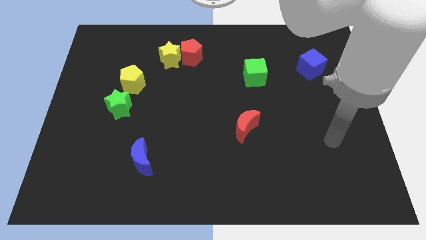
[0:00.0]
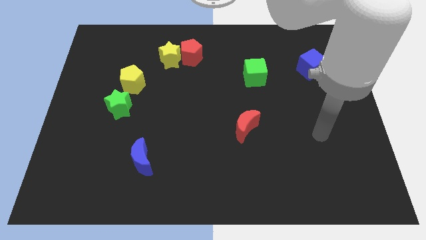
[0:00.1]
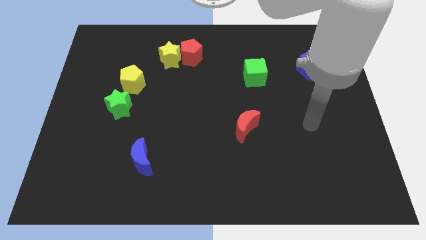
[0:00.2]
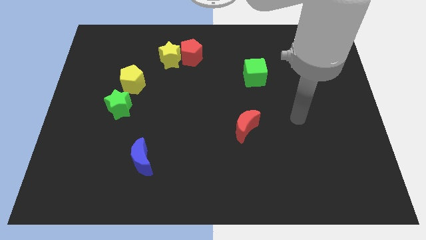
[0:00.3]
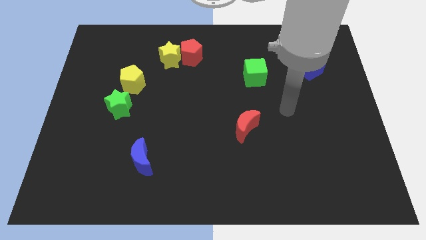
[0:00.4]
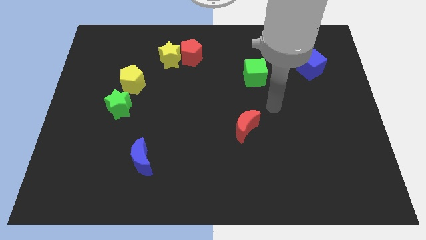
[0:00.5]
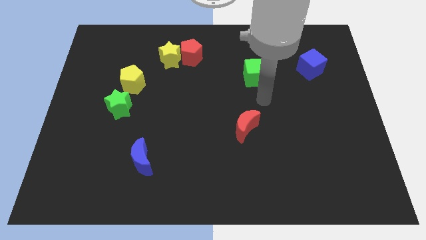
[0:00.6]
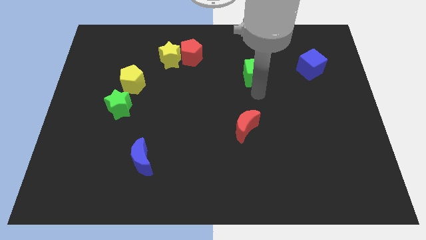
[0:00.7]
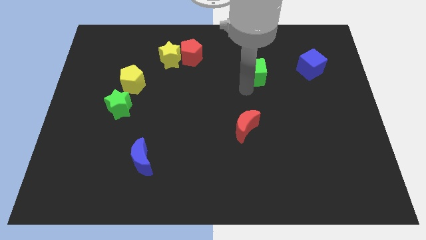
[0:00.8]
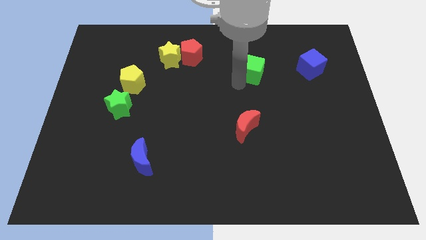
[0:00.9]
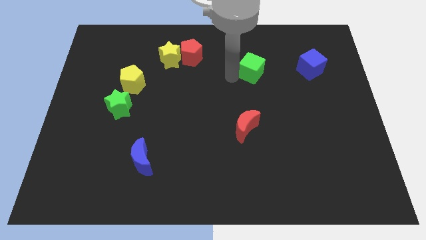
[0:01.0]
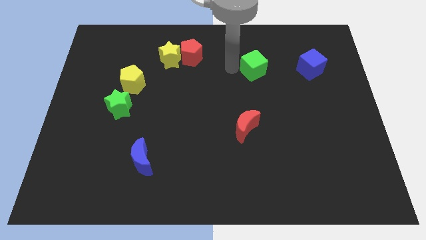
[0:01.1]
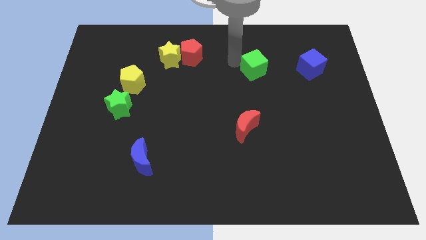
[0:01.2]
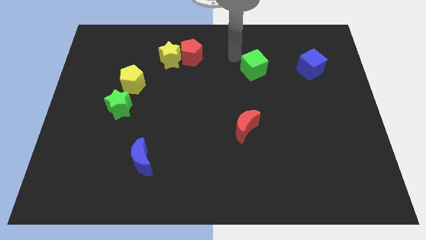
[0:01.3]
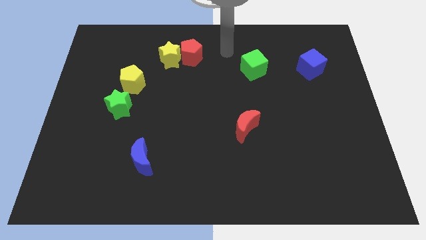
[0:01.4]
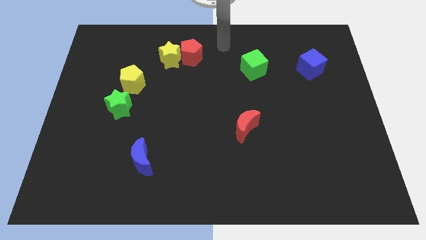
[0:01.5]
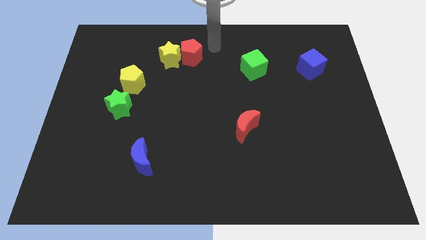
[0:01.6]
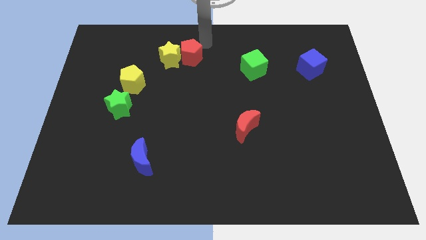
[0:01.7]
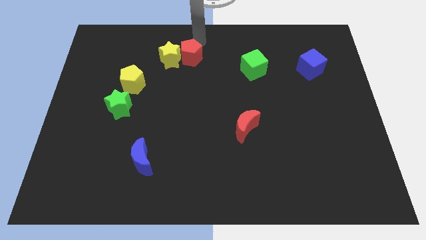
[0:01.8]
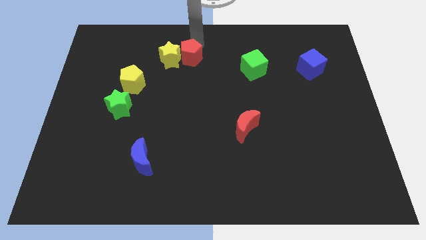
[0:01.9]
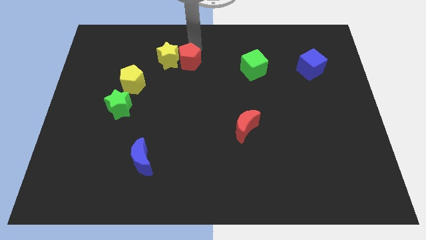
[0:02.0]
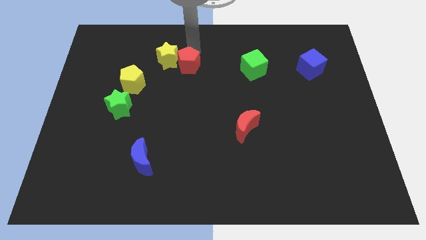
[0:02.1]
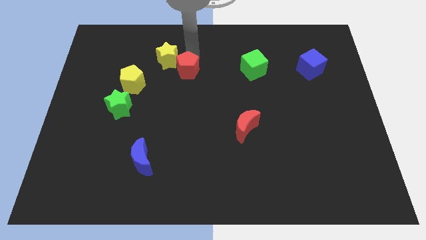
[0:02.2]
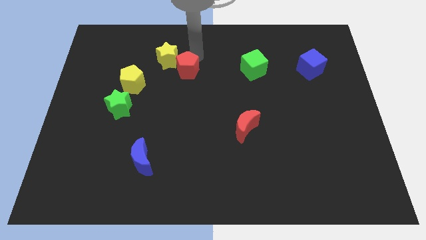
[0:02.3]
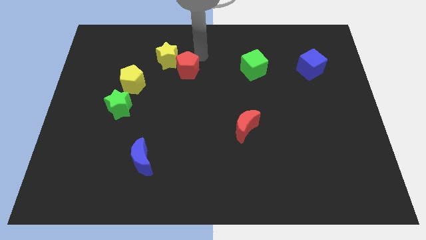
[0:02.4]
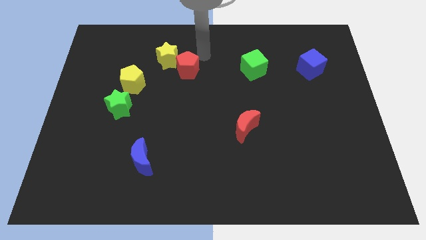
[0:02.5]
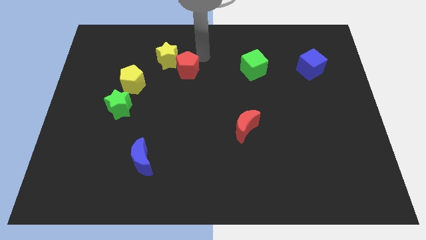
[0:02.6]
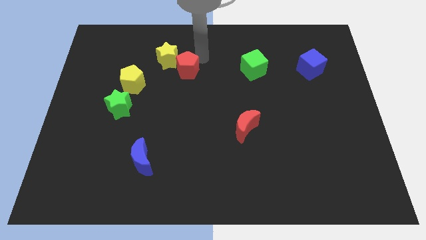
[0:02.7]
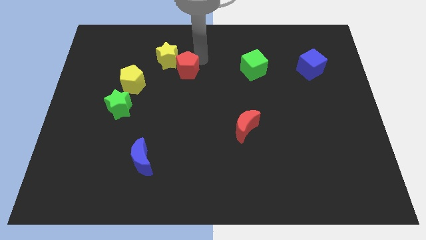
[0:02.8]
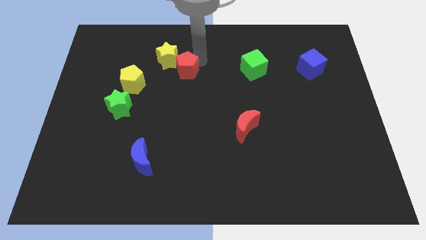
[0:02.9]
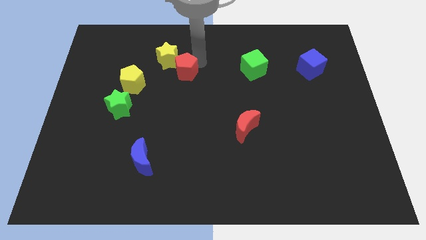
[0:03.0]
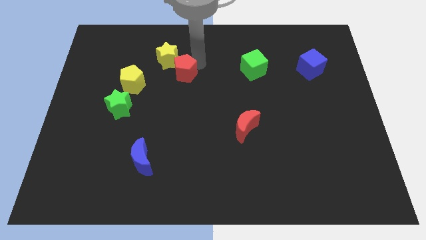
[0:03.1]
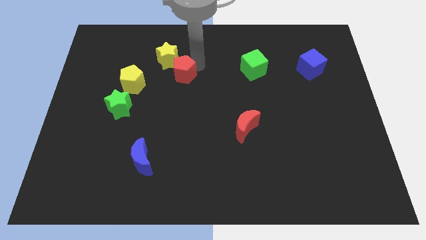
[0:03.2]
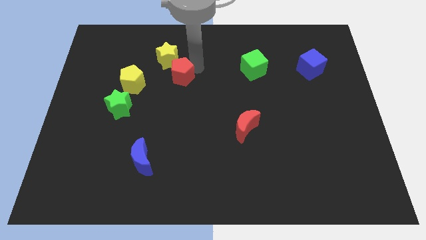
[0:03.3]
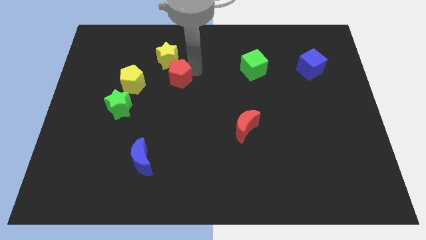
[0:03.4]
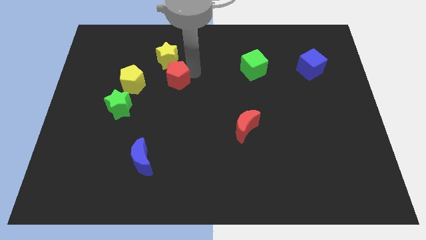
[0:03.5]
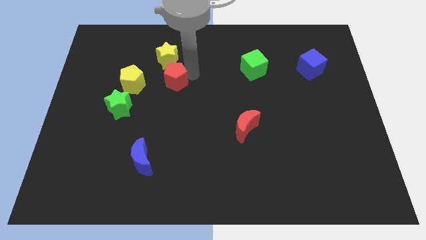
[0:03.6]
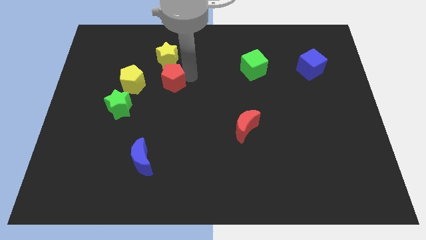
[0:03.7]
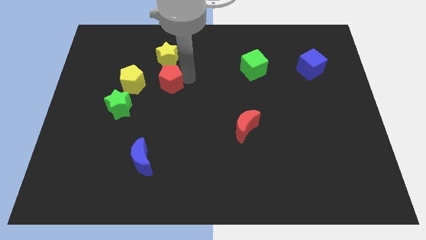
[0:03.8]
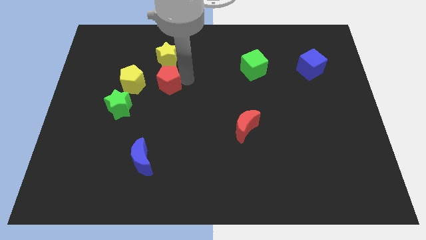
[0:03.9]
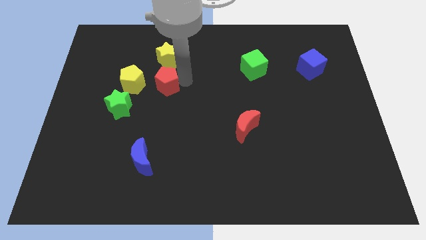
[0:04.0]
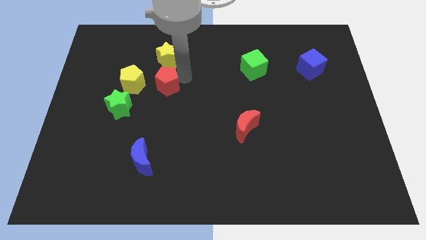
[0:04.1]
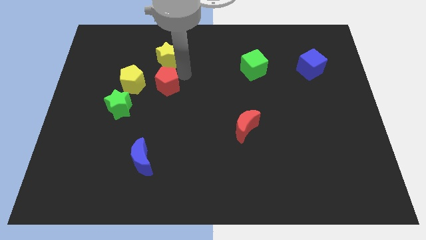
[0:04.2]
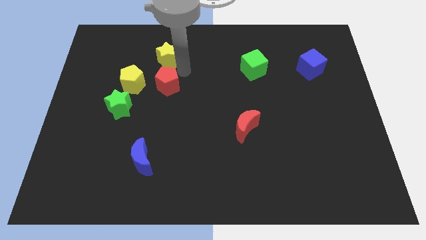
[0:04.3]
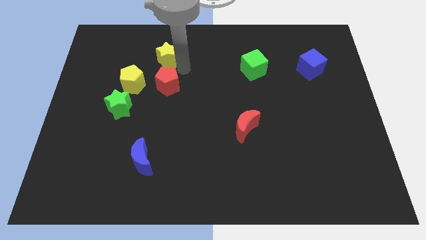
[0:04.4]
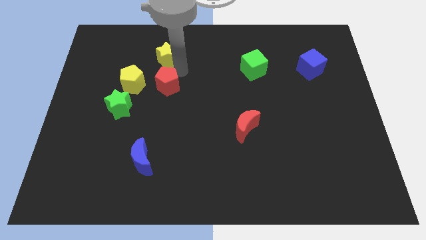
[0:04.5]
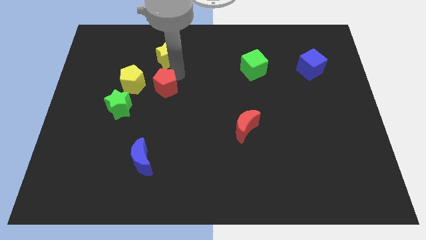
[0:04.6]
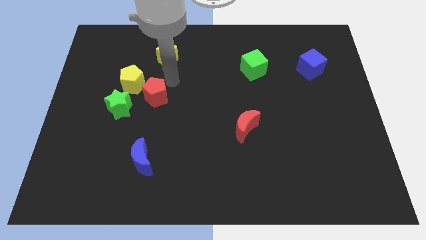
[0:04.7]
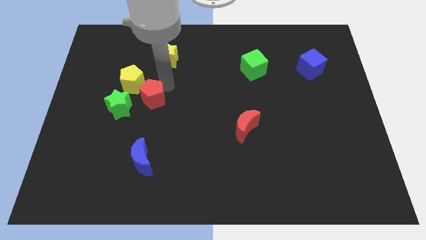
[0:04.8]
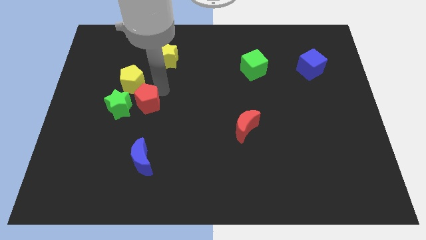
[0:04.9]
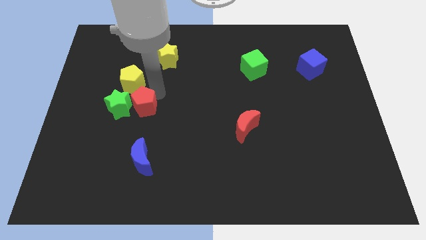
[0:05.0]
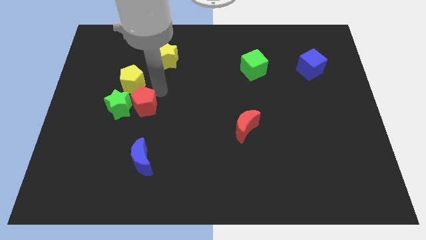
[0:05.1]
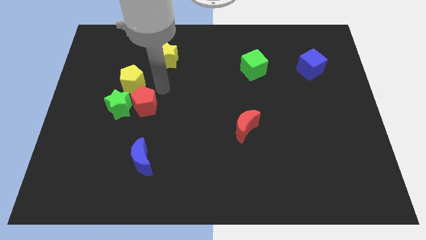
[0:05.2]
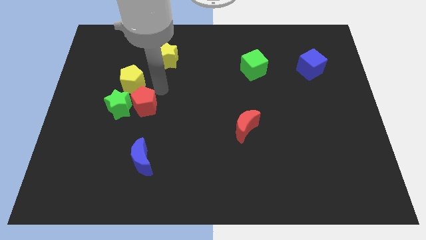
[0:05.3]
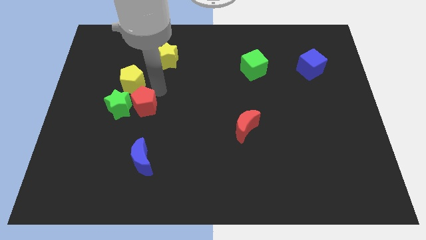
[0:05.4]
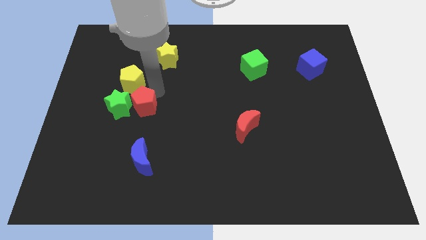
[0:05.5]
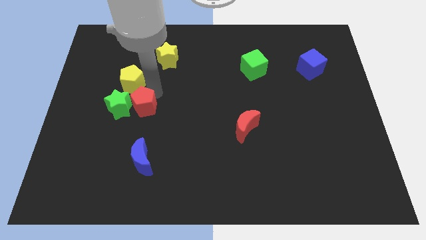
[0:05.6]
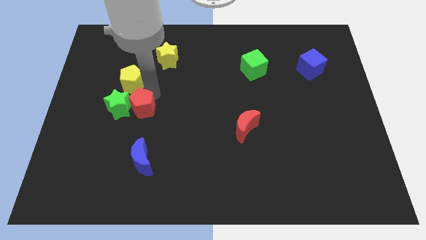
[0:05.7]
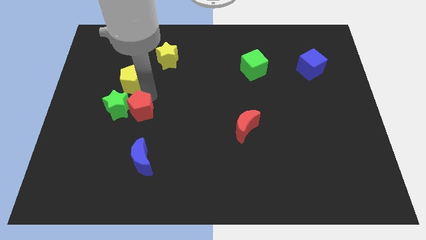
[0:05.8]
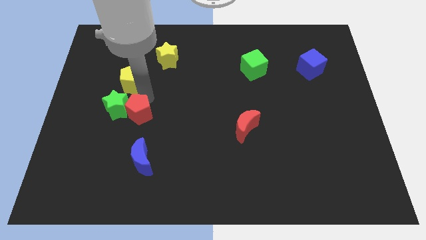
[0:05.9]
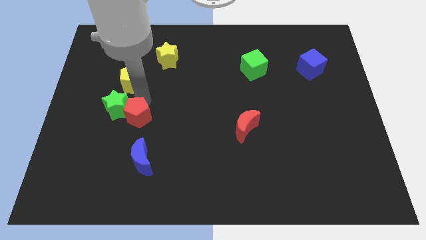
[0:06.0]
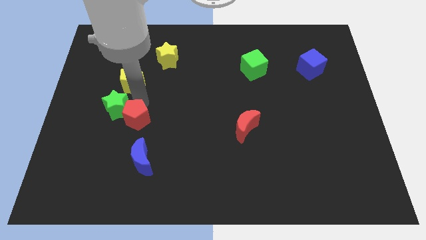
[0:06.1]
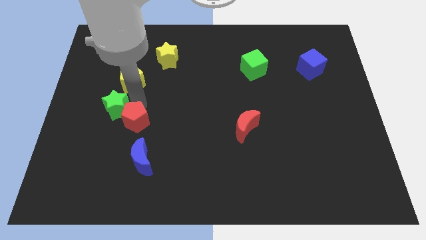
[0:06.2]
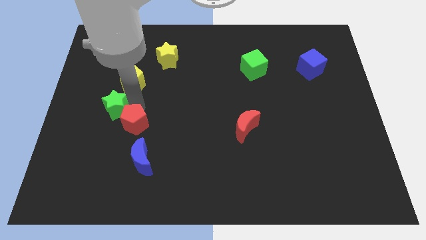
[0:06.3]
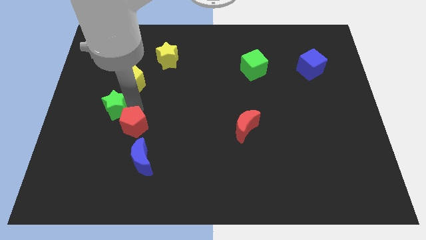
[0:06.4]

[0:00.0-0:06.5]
move the red pentagon to the top left of the blue moon

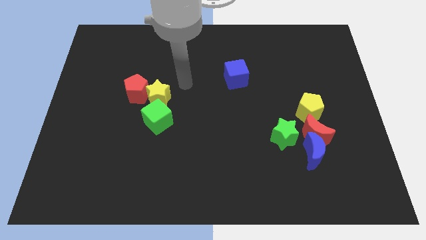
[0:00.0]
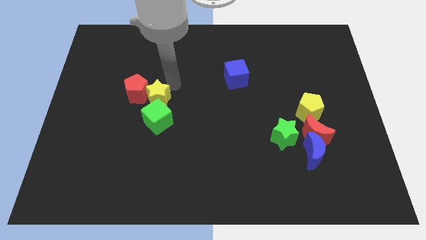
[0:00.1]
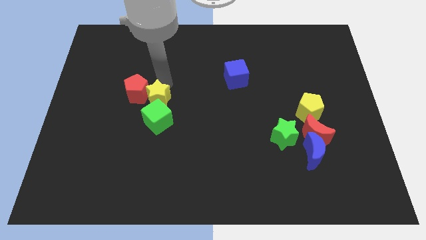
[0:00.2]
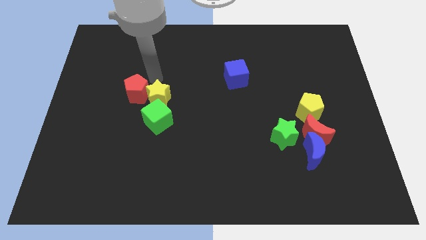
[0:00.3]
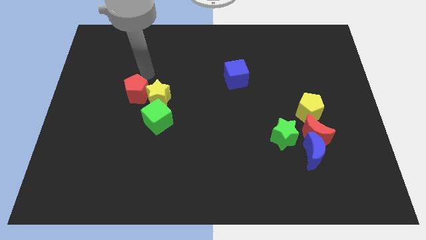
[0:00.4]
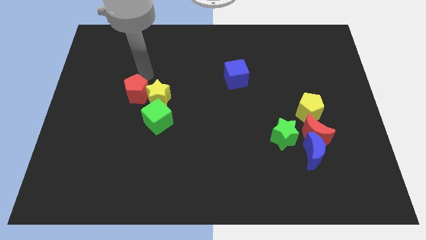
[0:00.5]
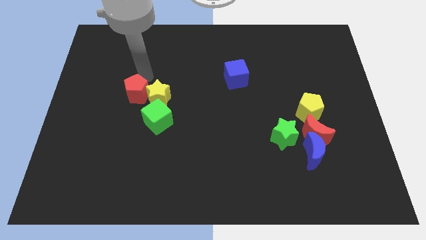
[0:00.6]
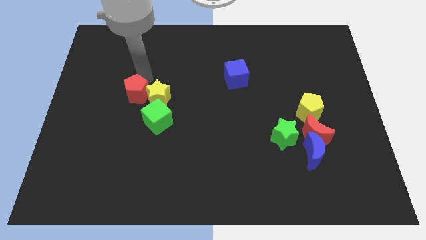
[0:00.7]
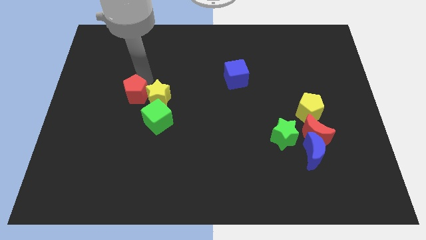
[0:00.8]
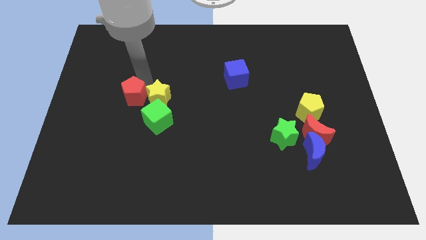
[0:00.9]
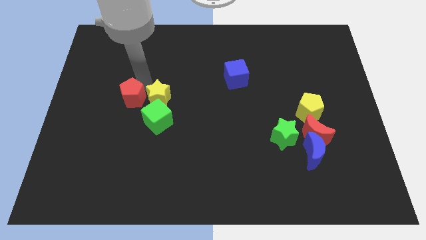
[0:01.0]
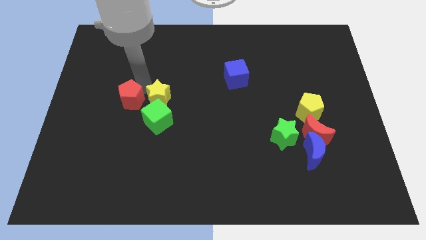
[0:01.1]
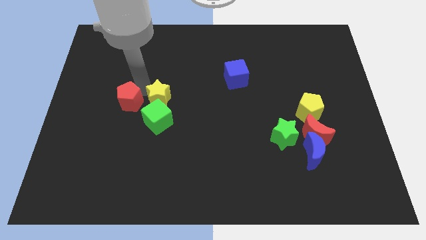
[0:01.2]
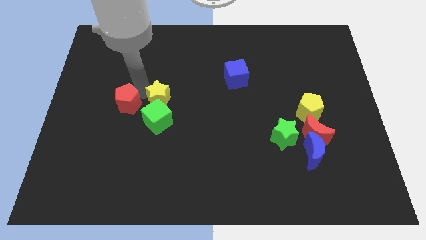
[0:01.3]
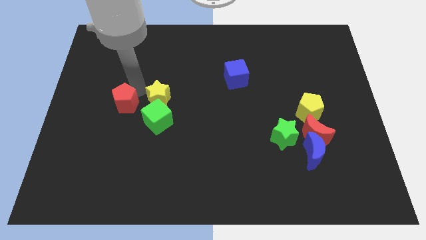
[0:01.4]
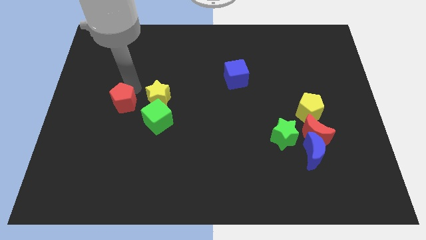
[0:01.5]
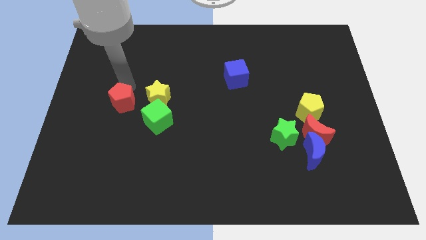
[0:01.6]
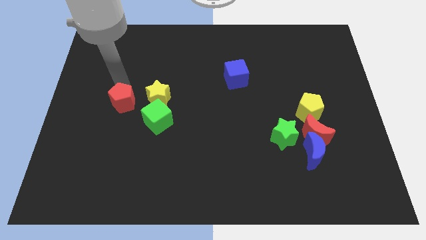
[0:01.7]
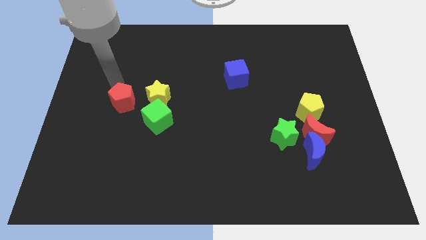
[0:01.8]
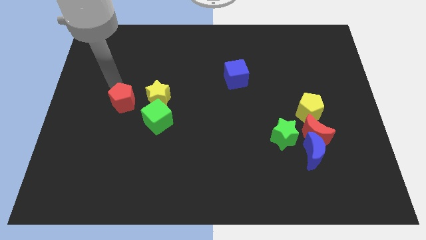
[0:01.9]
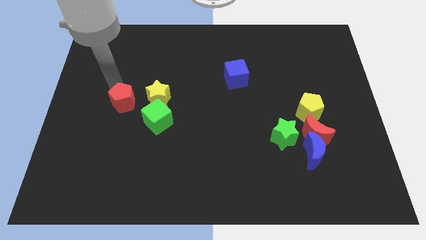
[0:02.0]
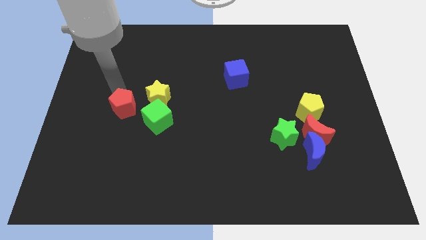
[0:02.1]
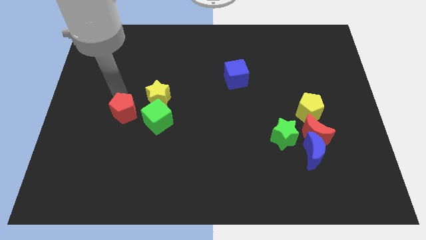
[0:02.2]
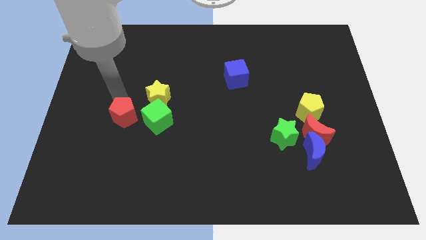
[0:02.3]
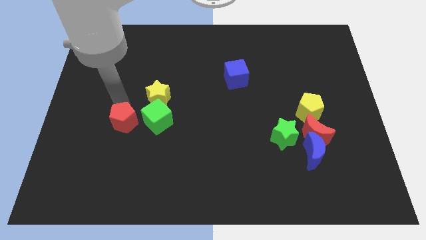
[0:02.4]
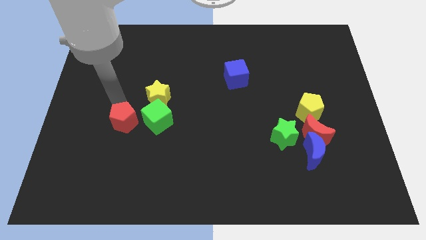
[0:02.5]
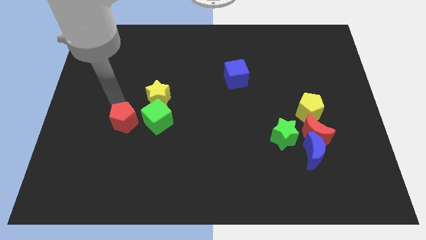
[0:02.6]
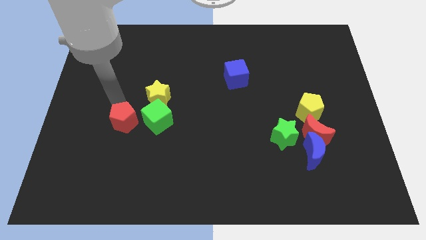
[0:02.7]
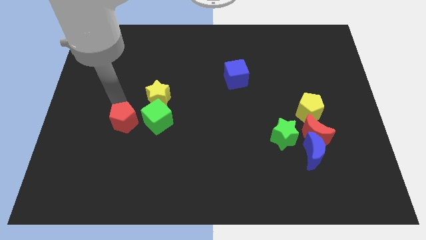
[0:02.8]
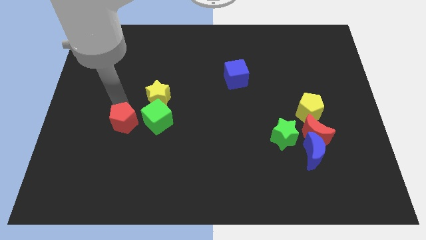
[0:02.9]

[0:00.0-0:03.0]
push the red pentagon to the bottom left side of the green cube
